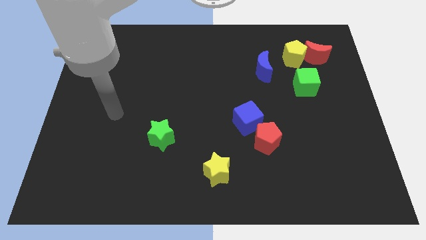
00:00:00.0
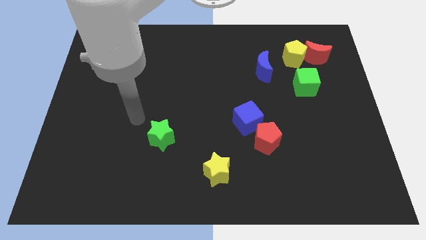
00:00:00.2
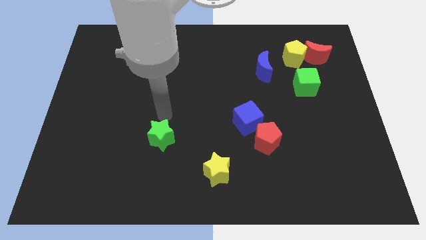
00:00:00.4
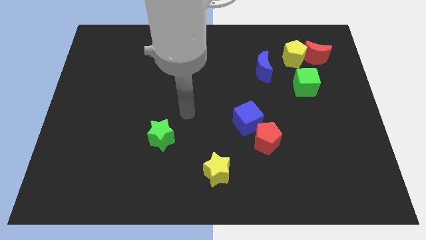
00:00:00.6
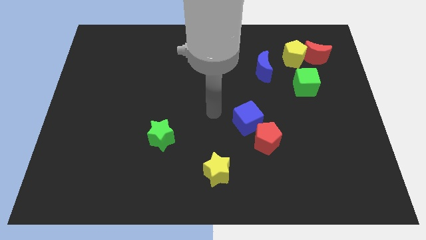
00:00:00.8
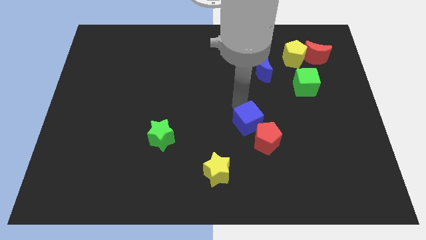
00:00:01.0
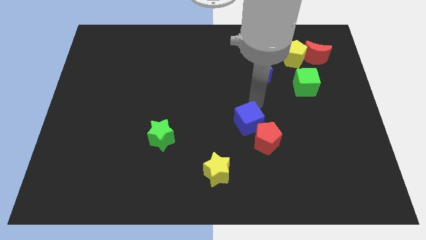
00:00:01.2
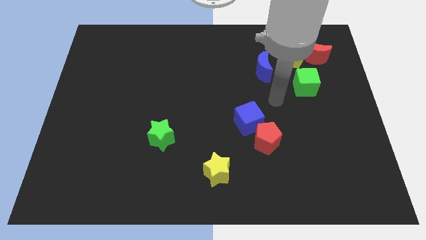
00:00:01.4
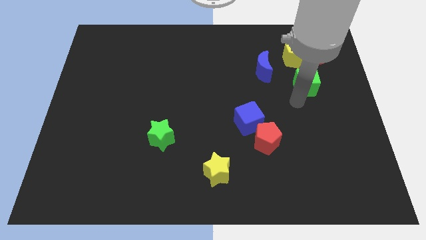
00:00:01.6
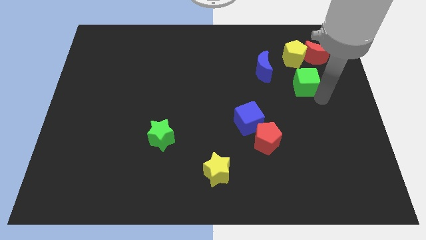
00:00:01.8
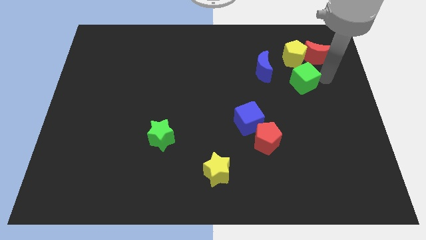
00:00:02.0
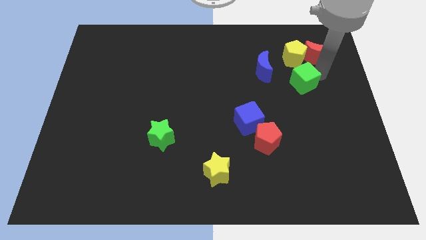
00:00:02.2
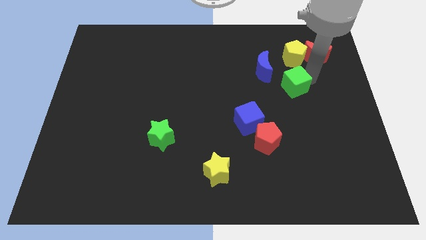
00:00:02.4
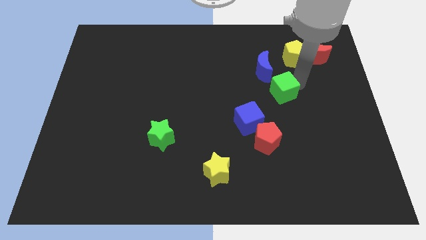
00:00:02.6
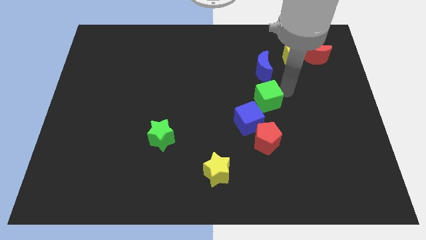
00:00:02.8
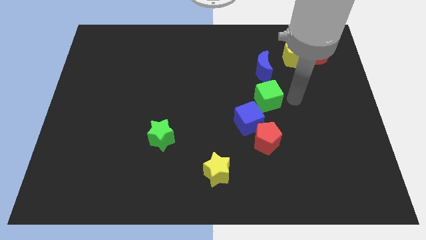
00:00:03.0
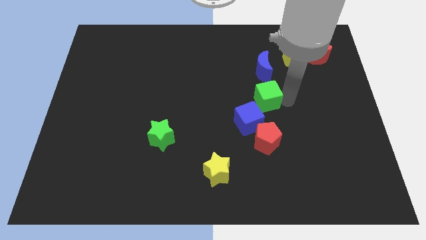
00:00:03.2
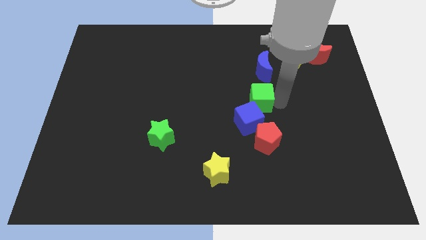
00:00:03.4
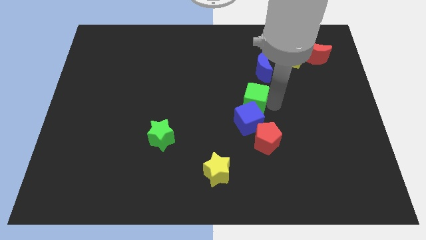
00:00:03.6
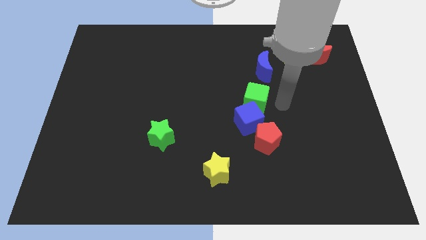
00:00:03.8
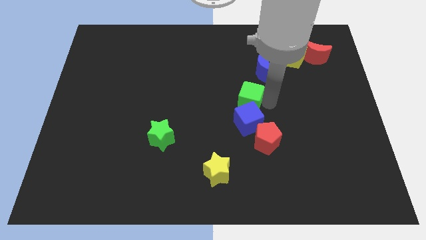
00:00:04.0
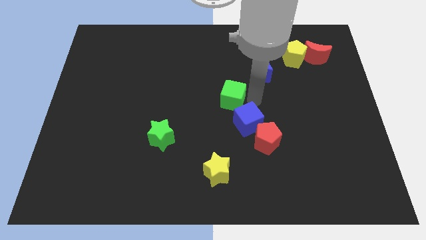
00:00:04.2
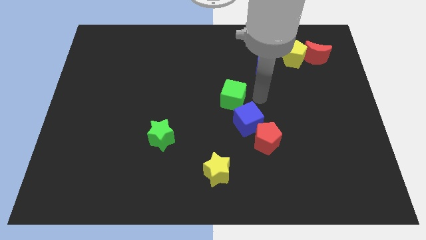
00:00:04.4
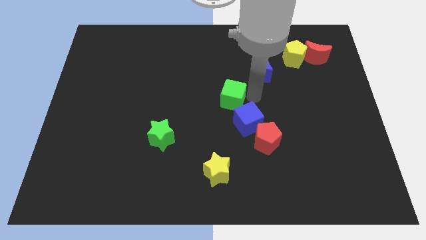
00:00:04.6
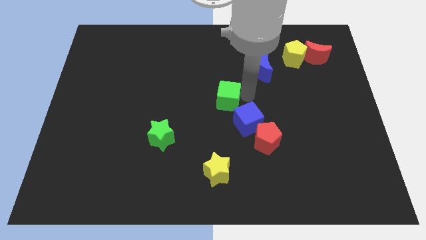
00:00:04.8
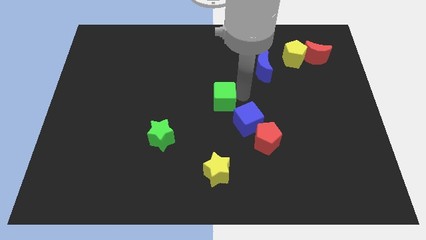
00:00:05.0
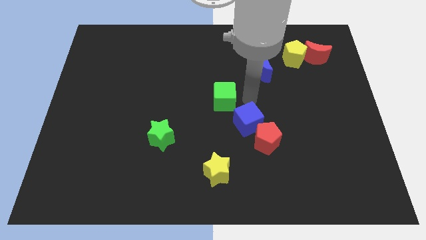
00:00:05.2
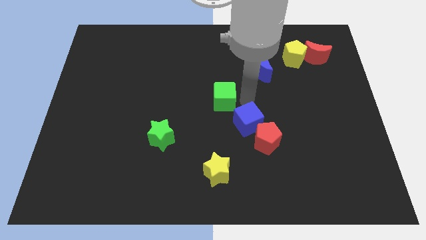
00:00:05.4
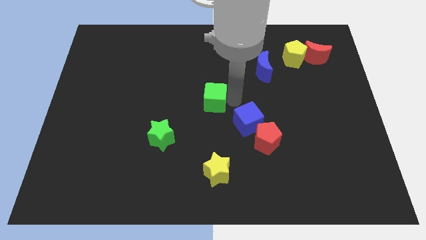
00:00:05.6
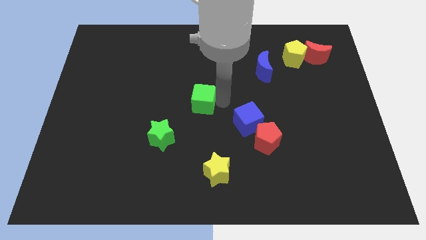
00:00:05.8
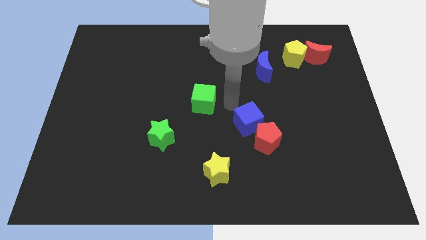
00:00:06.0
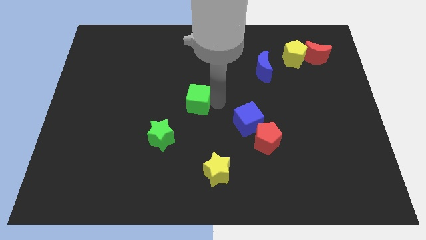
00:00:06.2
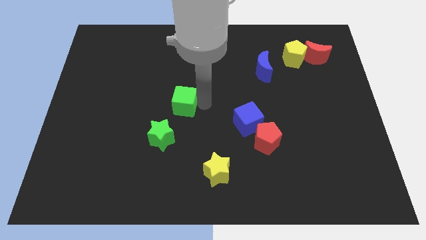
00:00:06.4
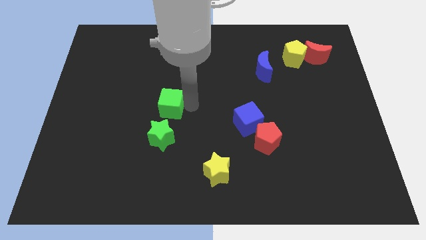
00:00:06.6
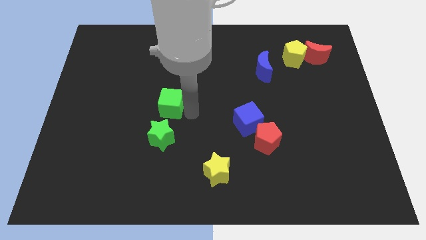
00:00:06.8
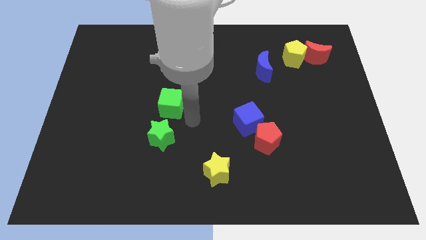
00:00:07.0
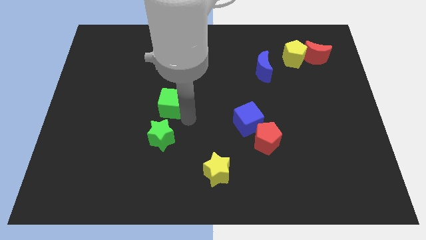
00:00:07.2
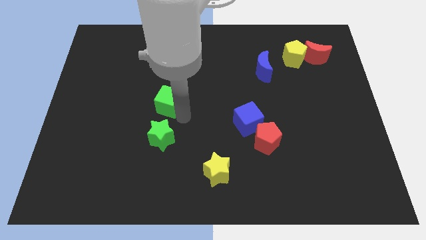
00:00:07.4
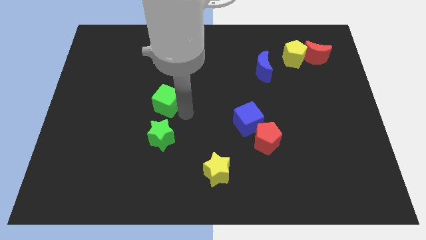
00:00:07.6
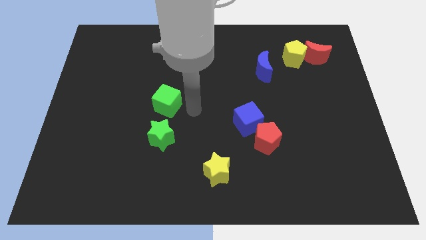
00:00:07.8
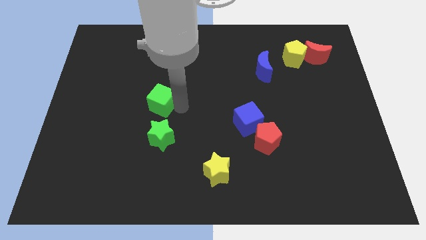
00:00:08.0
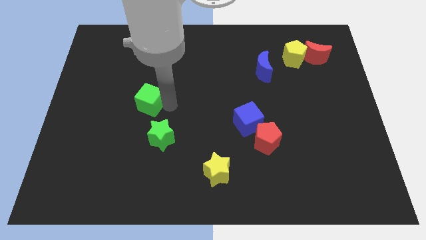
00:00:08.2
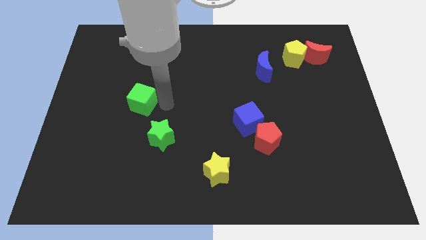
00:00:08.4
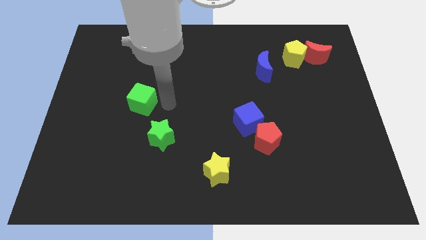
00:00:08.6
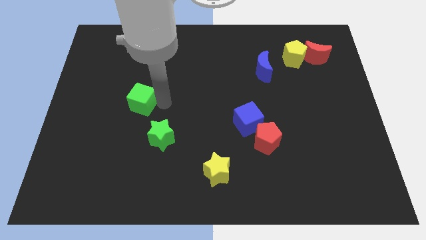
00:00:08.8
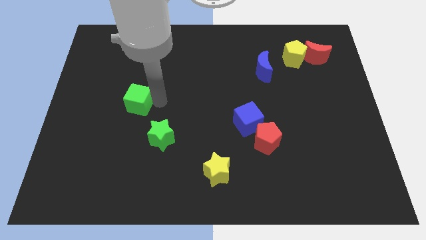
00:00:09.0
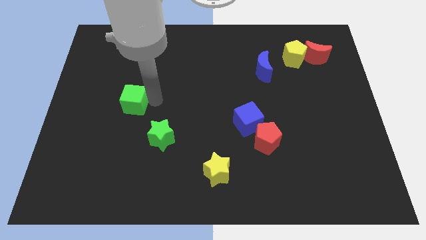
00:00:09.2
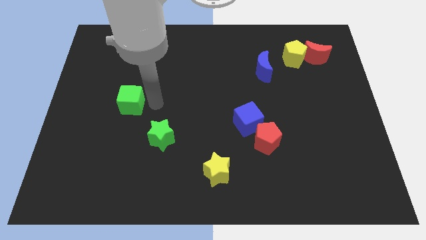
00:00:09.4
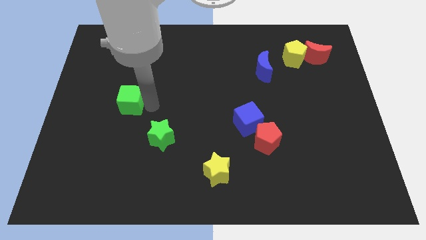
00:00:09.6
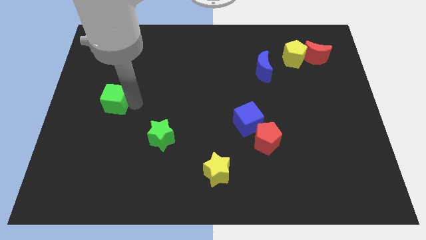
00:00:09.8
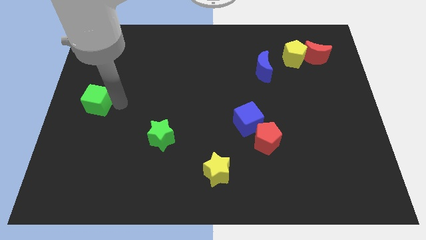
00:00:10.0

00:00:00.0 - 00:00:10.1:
move the green cube to the center left
